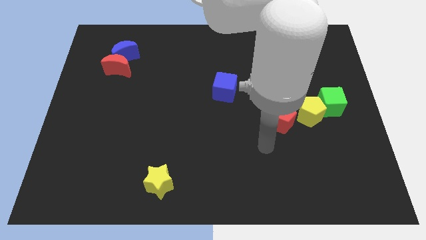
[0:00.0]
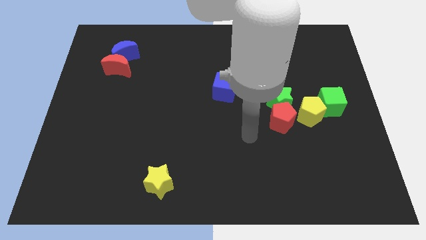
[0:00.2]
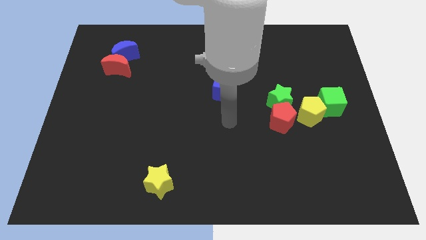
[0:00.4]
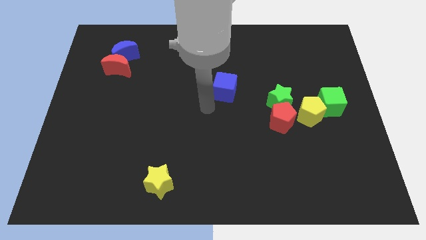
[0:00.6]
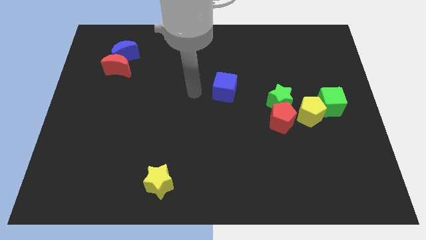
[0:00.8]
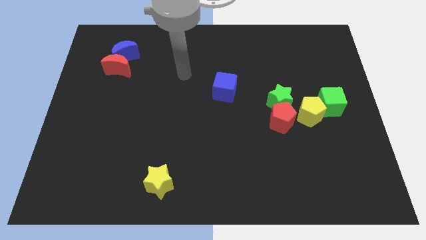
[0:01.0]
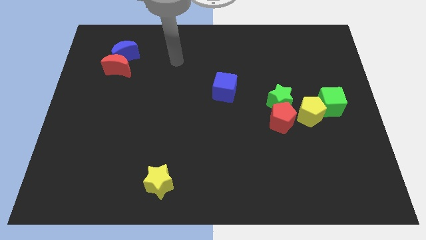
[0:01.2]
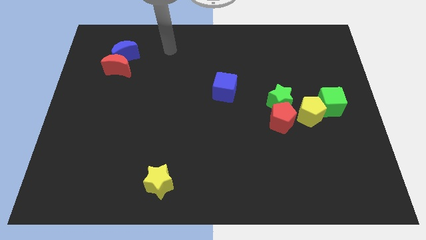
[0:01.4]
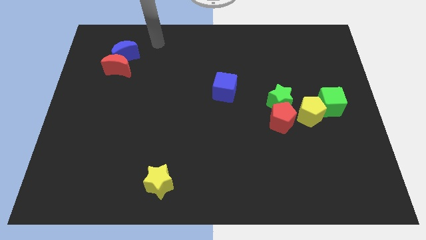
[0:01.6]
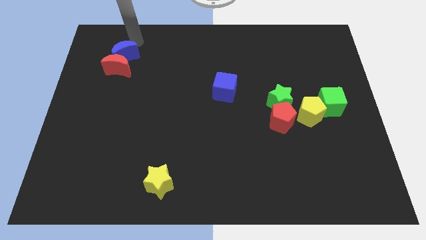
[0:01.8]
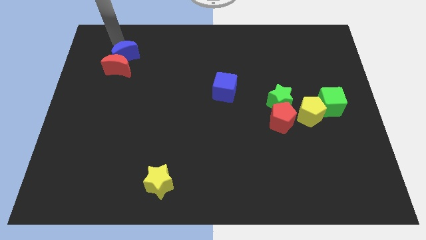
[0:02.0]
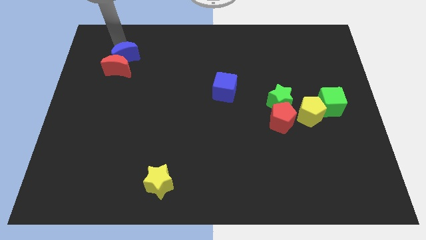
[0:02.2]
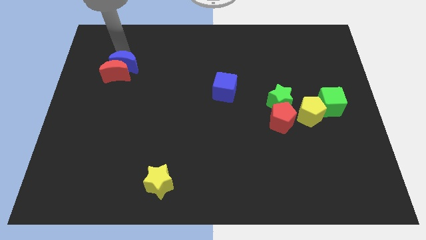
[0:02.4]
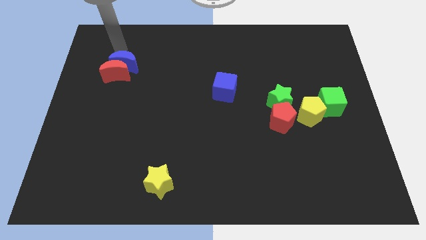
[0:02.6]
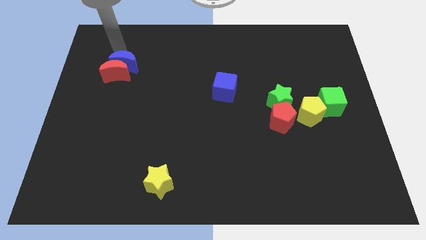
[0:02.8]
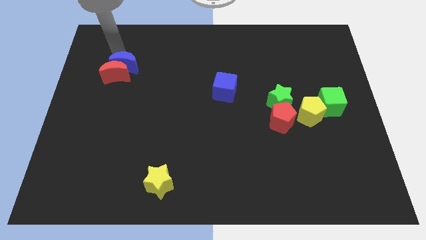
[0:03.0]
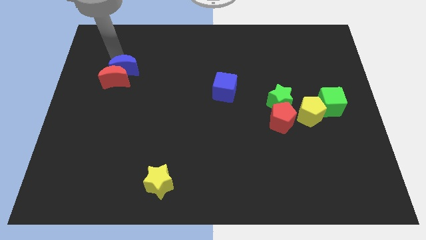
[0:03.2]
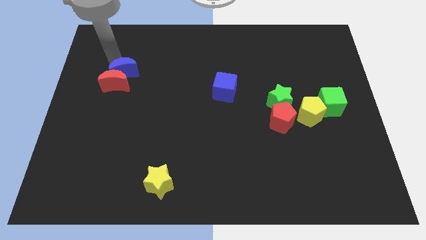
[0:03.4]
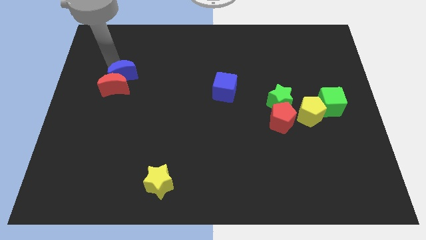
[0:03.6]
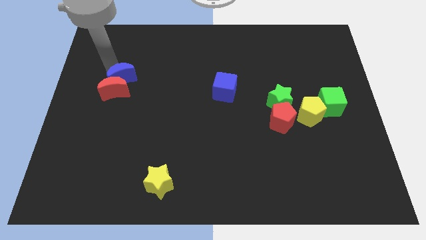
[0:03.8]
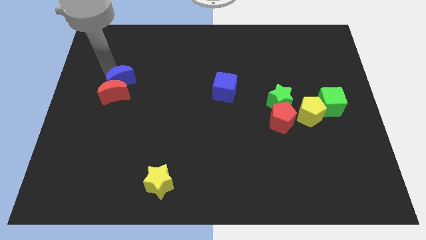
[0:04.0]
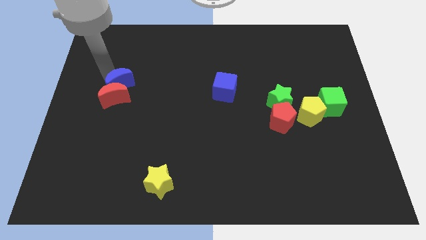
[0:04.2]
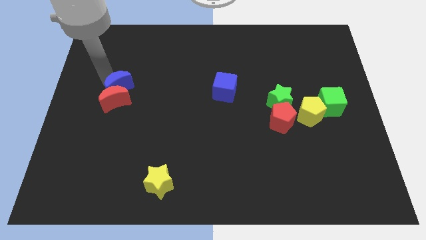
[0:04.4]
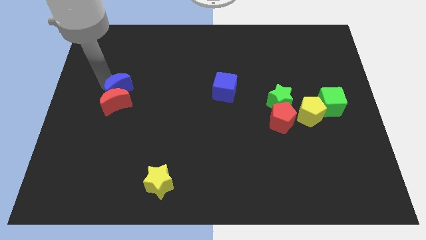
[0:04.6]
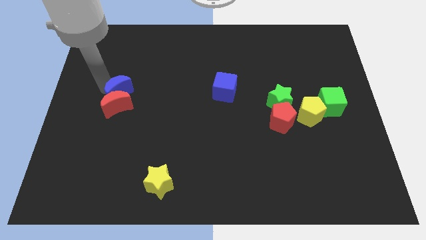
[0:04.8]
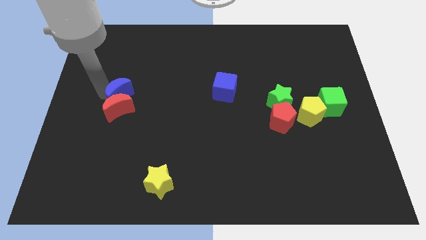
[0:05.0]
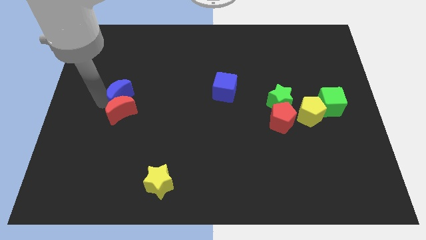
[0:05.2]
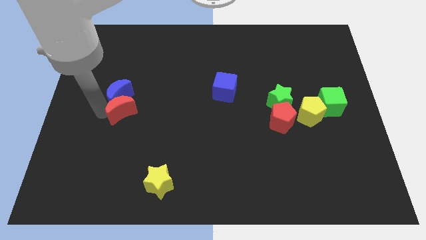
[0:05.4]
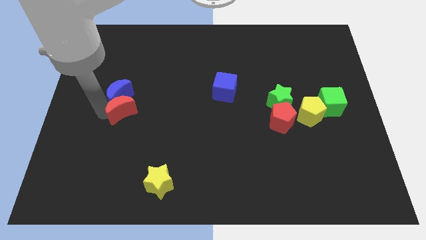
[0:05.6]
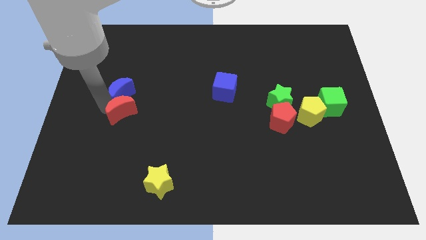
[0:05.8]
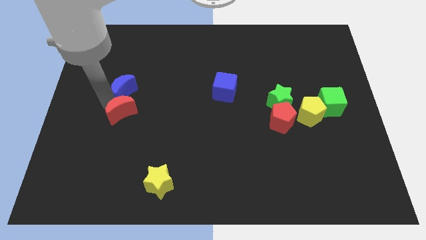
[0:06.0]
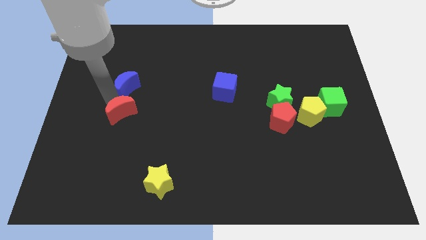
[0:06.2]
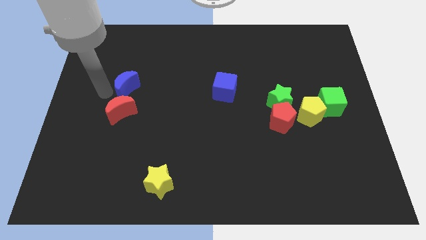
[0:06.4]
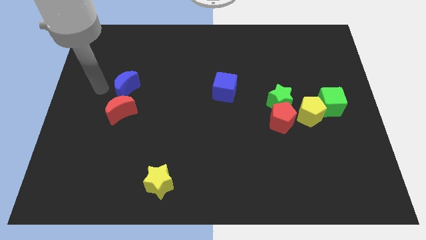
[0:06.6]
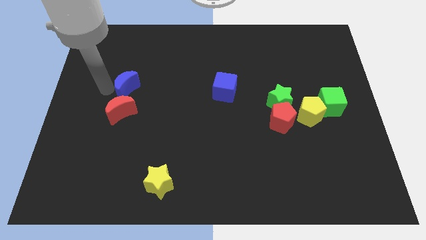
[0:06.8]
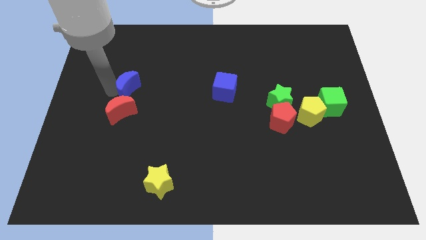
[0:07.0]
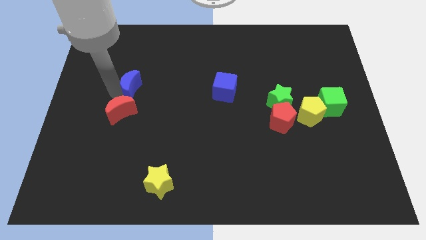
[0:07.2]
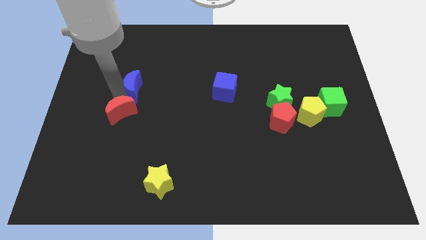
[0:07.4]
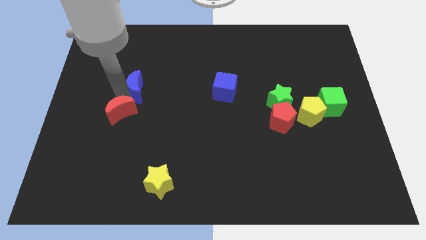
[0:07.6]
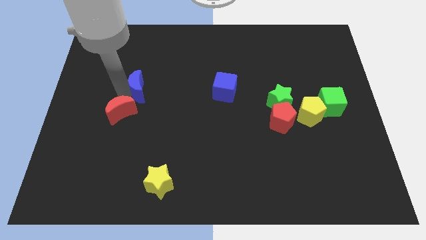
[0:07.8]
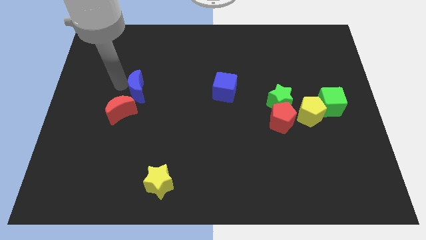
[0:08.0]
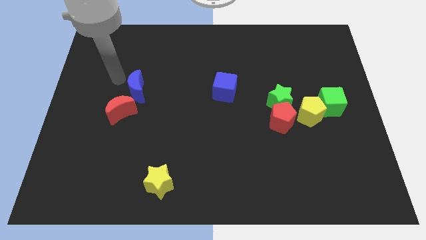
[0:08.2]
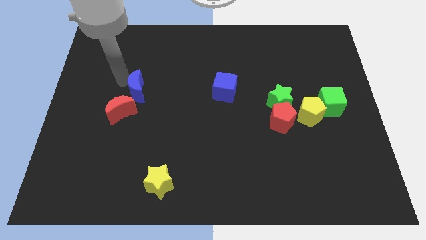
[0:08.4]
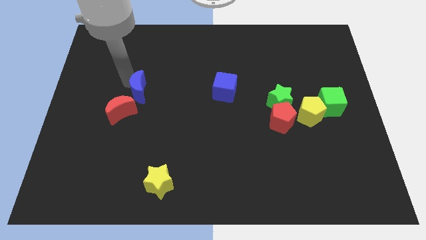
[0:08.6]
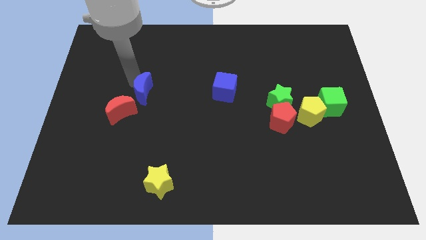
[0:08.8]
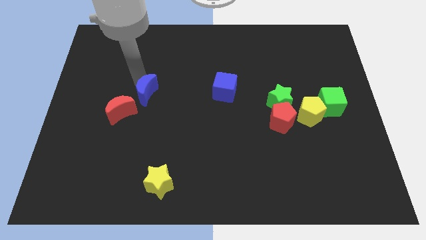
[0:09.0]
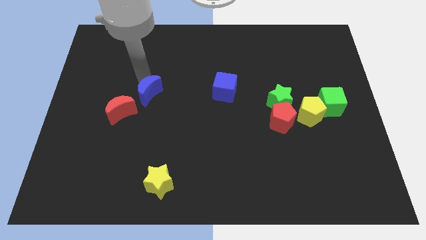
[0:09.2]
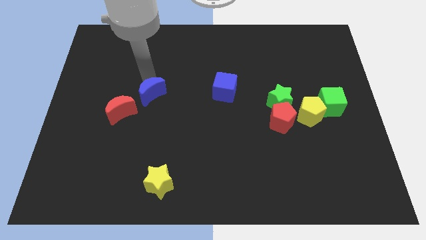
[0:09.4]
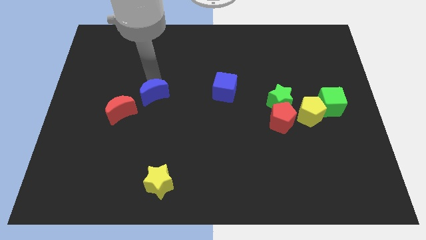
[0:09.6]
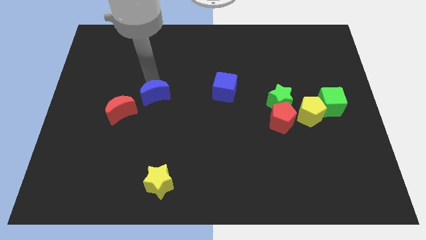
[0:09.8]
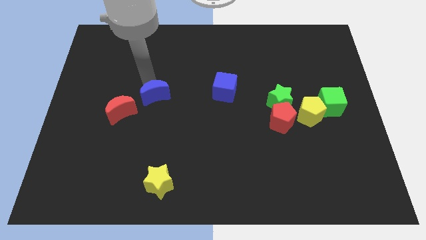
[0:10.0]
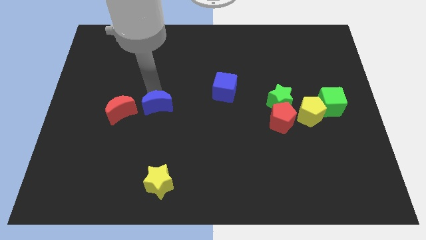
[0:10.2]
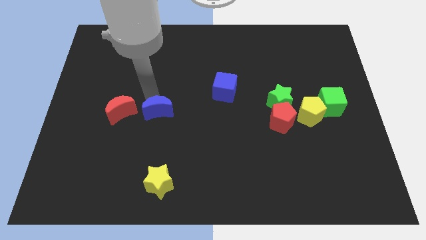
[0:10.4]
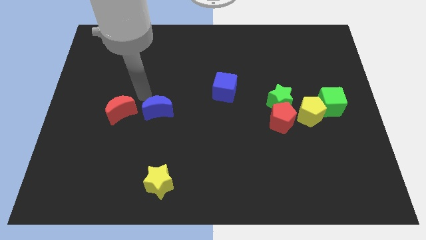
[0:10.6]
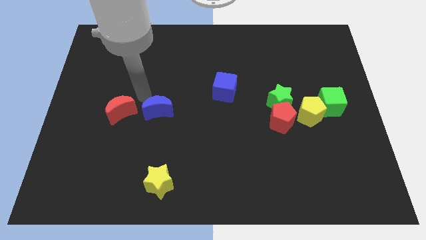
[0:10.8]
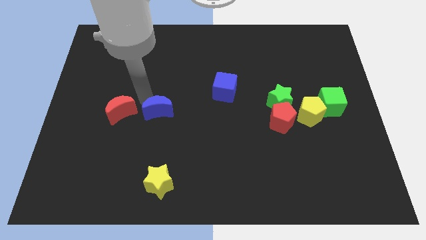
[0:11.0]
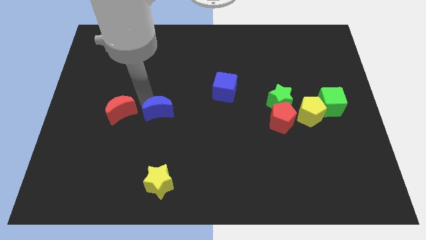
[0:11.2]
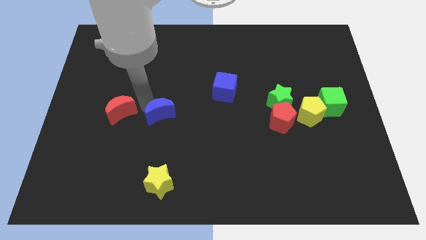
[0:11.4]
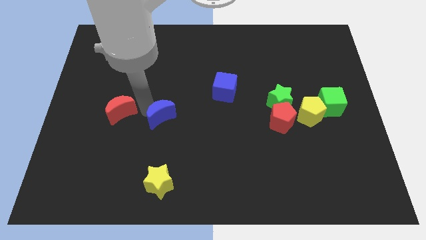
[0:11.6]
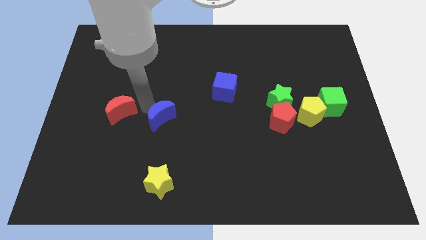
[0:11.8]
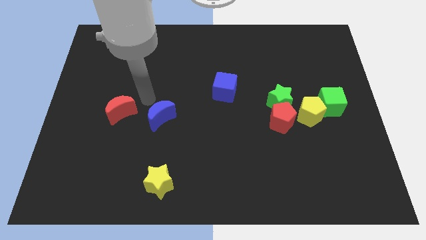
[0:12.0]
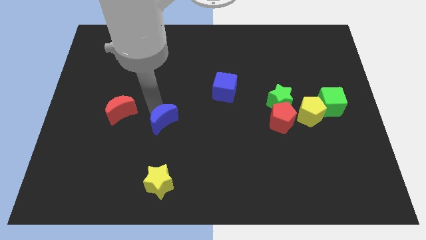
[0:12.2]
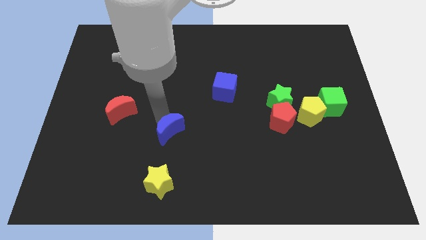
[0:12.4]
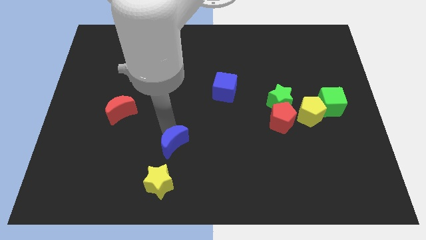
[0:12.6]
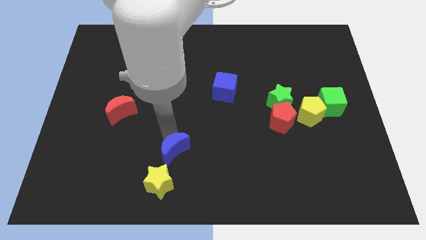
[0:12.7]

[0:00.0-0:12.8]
slide the blue moon to the top right side of the yellow star

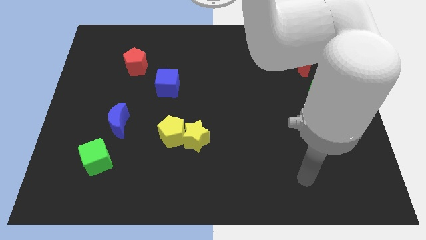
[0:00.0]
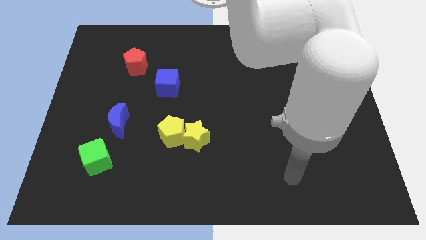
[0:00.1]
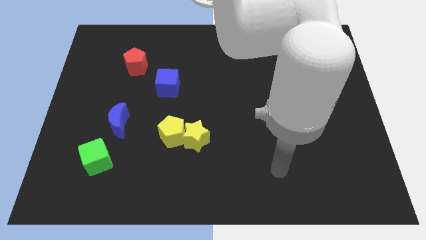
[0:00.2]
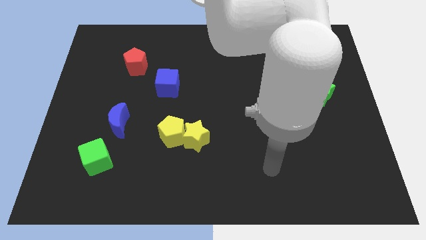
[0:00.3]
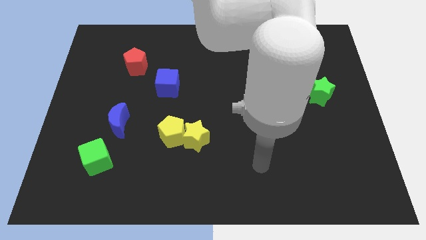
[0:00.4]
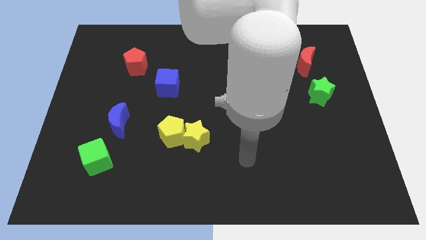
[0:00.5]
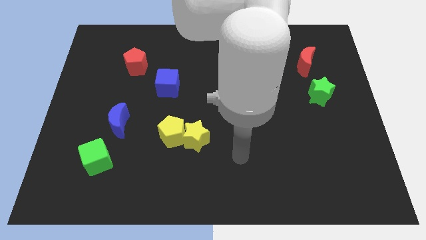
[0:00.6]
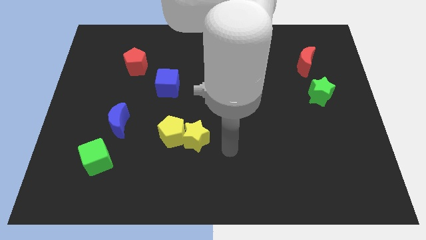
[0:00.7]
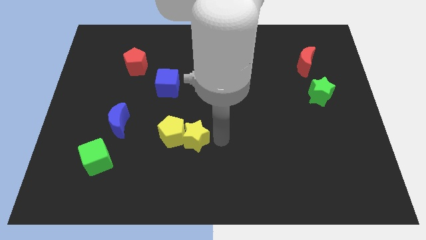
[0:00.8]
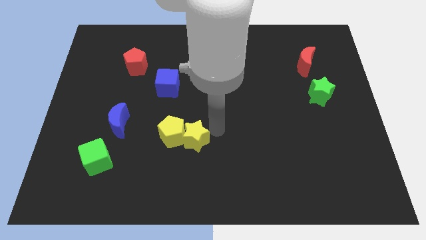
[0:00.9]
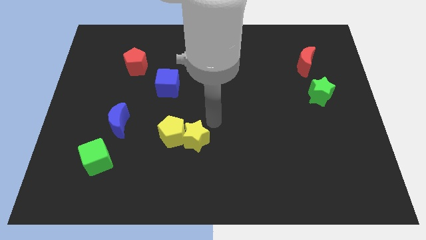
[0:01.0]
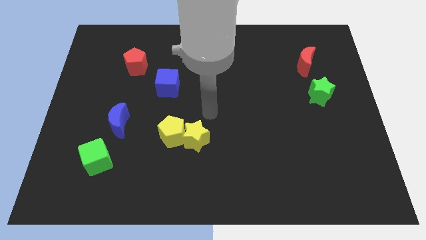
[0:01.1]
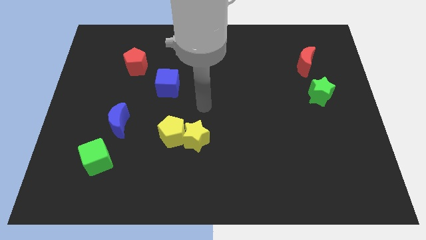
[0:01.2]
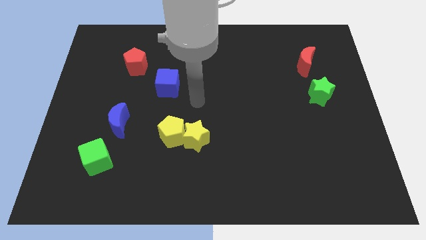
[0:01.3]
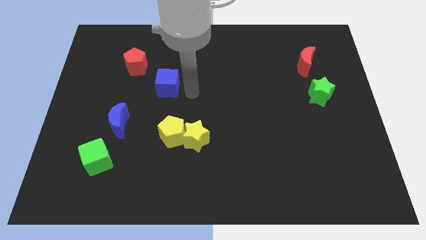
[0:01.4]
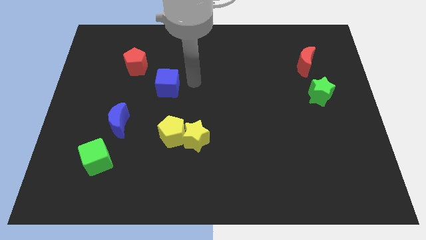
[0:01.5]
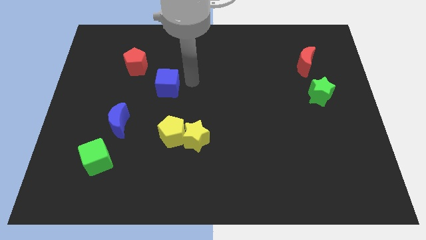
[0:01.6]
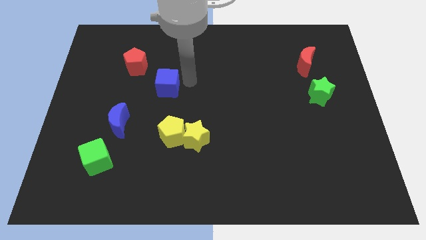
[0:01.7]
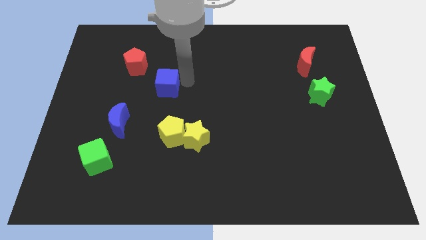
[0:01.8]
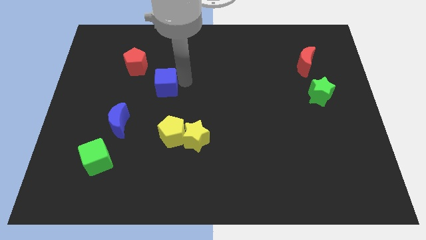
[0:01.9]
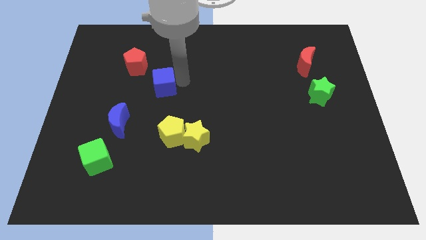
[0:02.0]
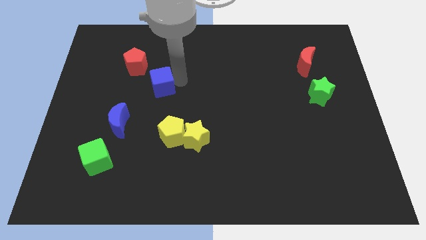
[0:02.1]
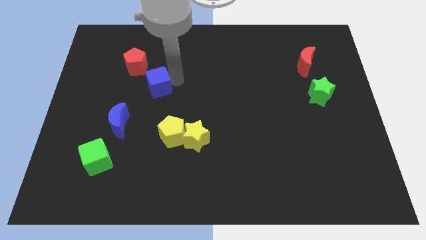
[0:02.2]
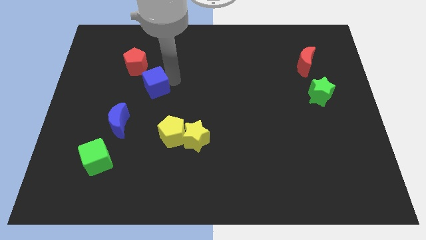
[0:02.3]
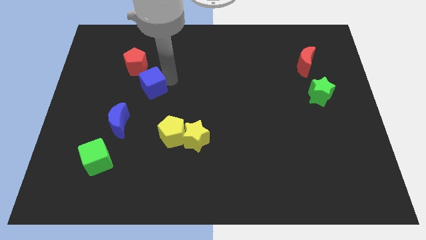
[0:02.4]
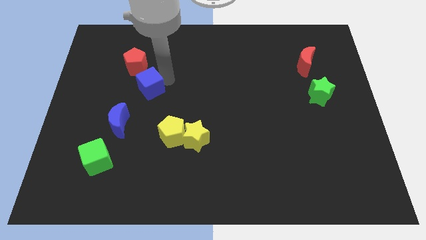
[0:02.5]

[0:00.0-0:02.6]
move the blue cube to the bottom of the red pentagon
